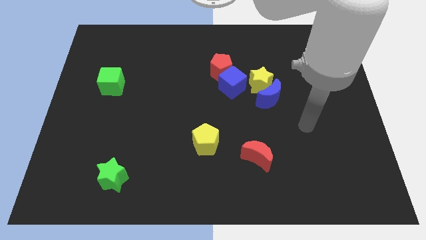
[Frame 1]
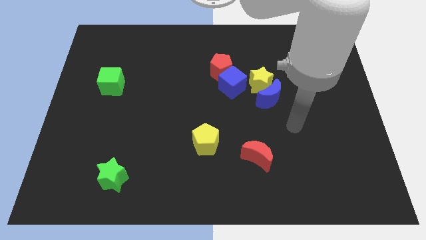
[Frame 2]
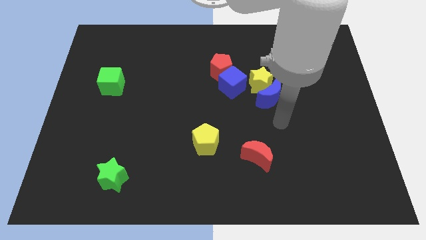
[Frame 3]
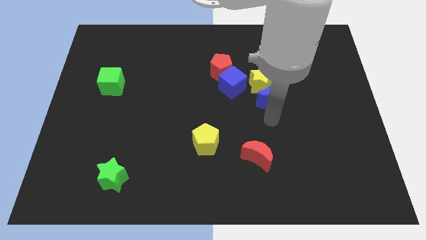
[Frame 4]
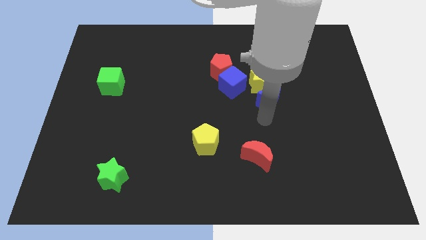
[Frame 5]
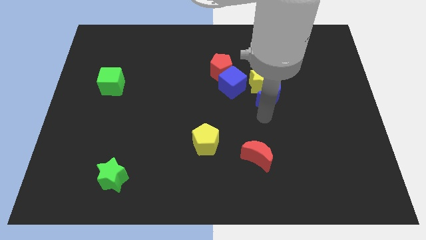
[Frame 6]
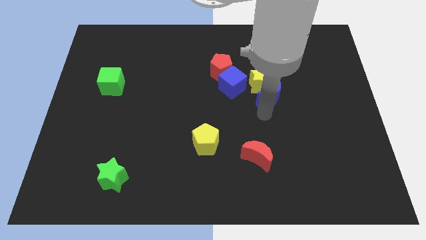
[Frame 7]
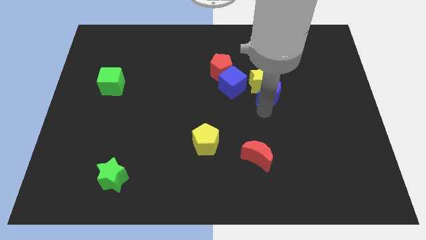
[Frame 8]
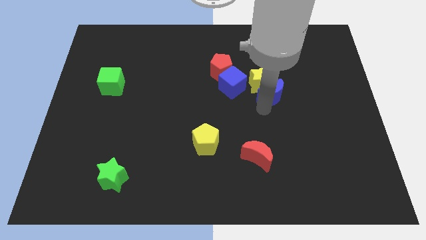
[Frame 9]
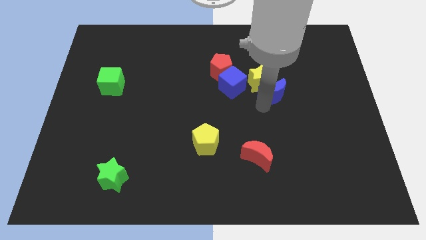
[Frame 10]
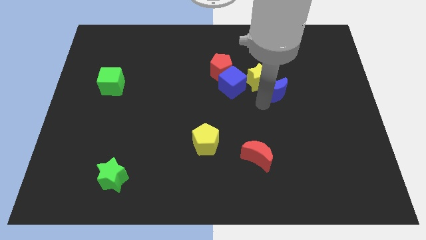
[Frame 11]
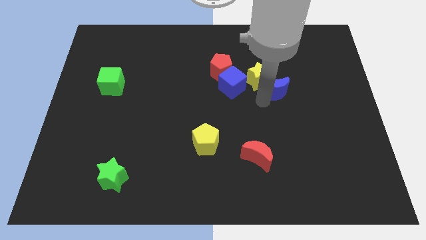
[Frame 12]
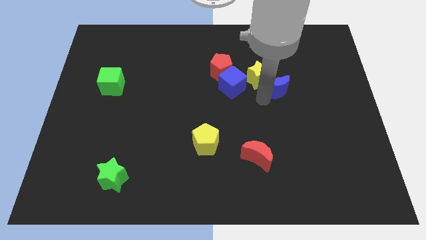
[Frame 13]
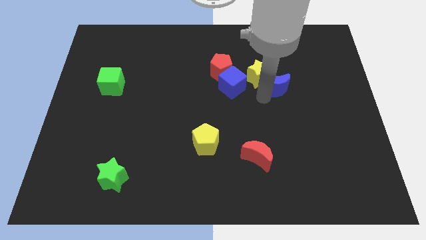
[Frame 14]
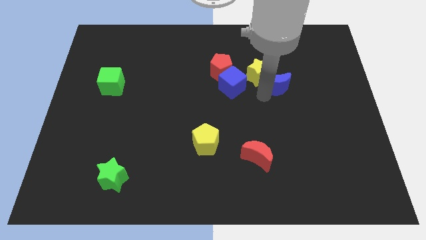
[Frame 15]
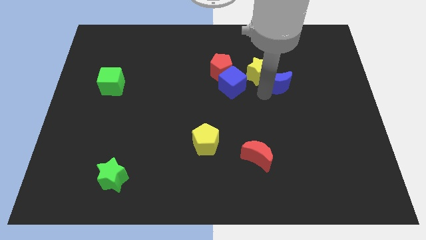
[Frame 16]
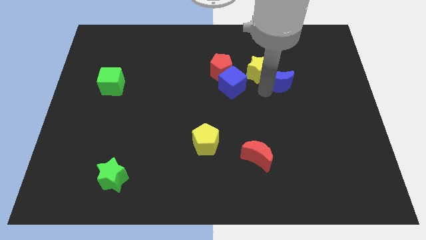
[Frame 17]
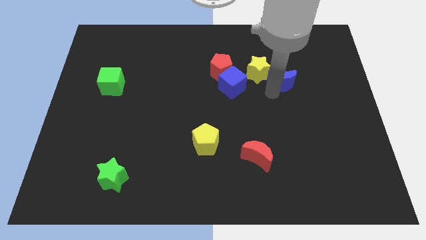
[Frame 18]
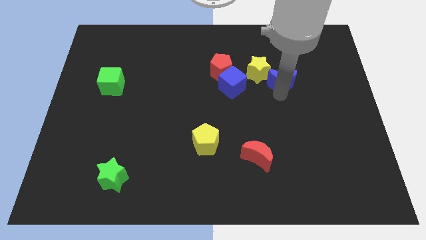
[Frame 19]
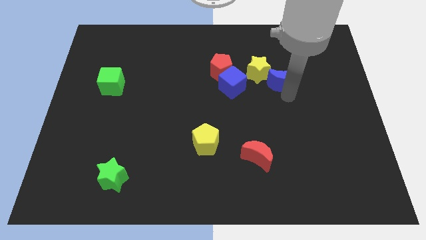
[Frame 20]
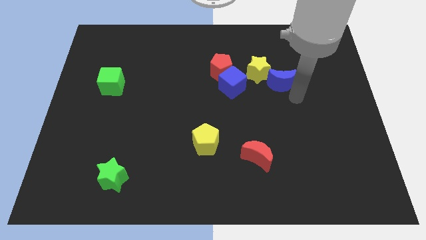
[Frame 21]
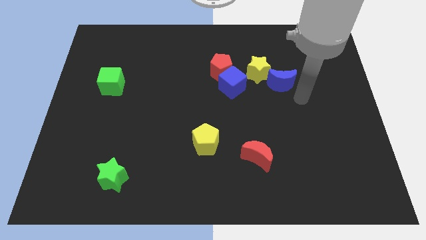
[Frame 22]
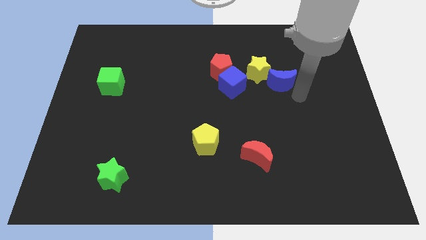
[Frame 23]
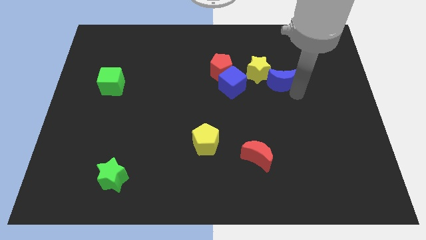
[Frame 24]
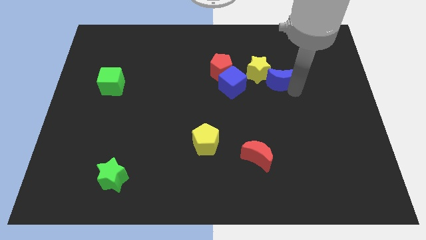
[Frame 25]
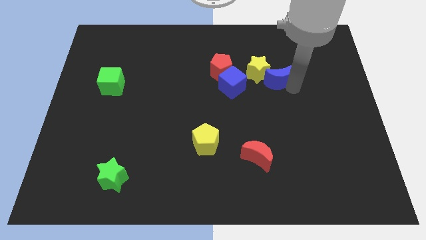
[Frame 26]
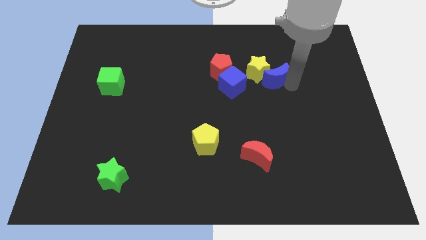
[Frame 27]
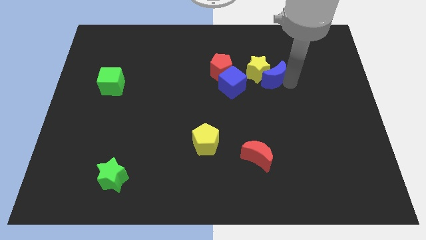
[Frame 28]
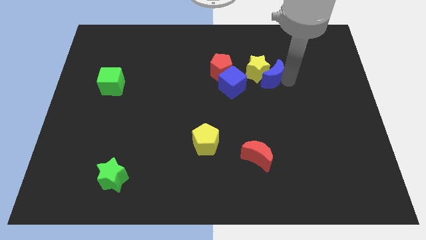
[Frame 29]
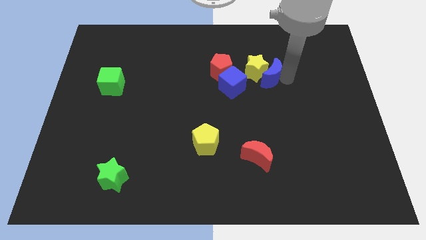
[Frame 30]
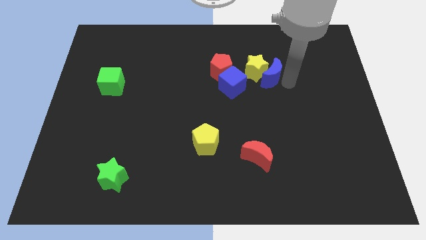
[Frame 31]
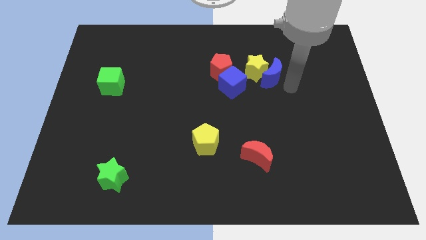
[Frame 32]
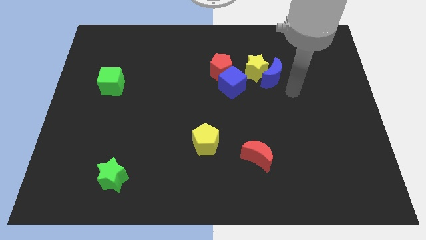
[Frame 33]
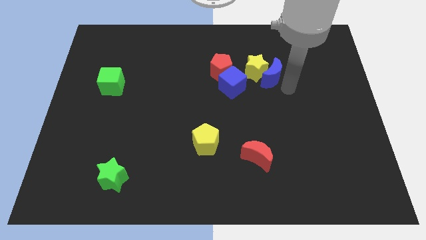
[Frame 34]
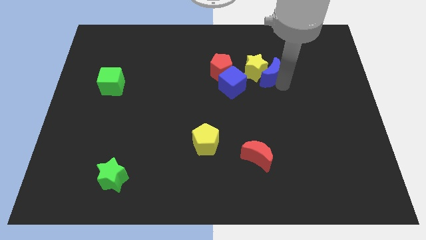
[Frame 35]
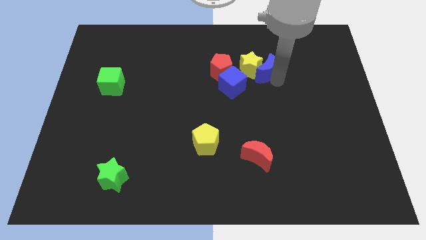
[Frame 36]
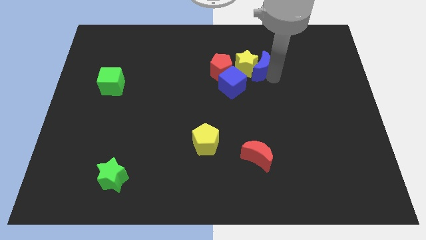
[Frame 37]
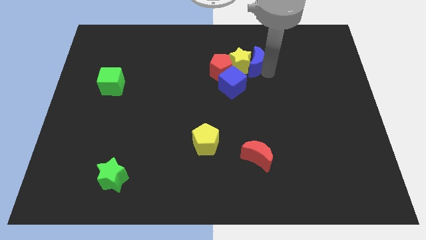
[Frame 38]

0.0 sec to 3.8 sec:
slightly move the blue moon diagonally up and left

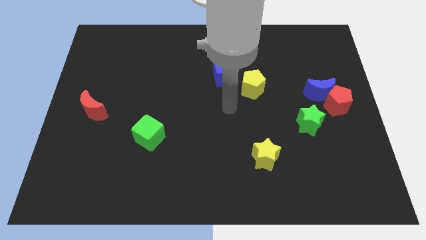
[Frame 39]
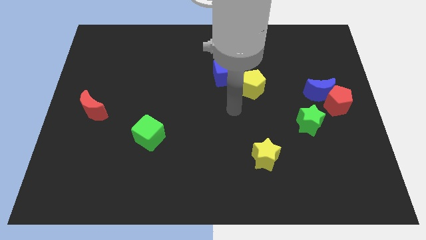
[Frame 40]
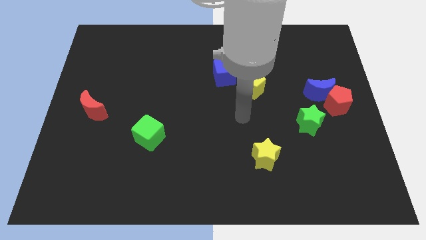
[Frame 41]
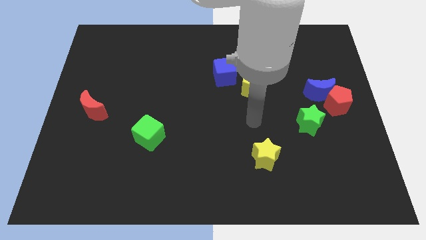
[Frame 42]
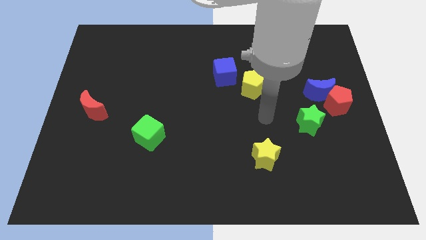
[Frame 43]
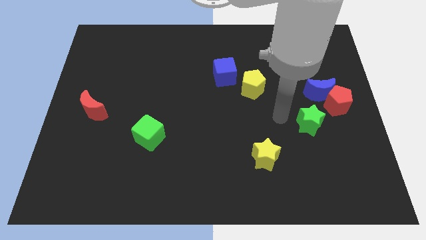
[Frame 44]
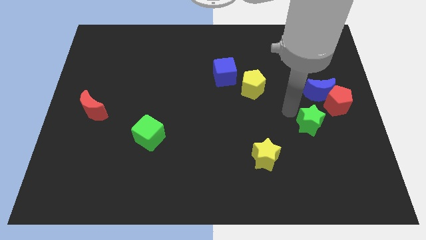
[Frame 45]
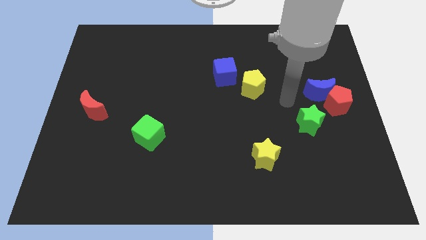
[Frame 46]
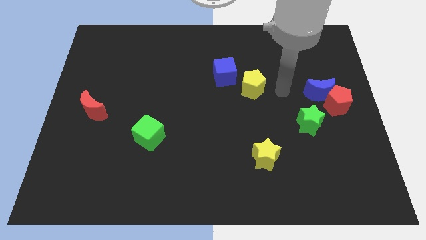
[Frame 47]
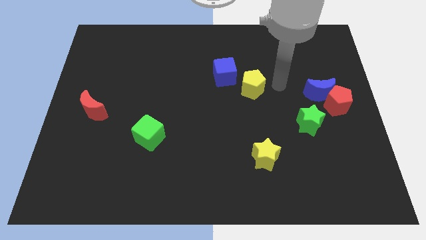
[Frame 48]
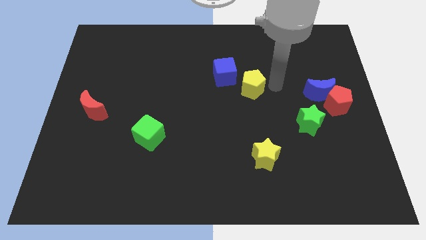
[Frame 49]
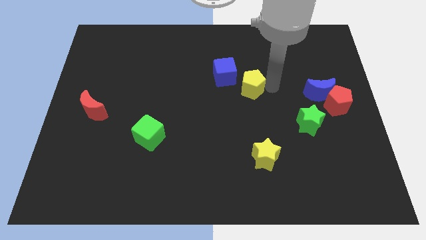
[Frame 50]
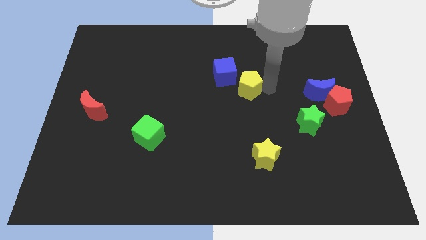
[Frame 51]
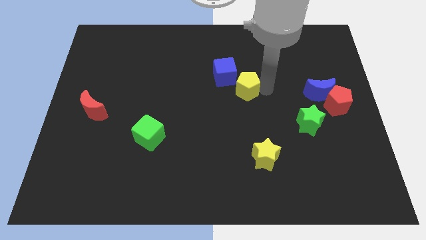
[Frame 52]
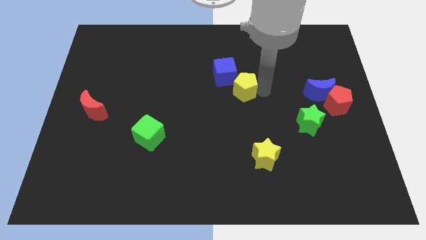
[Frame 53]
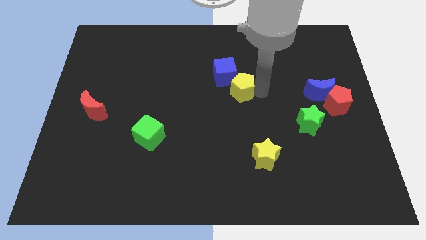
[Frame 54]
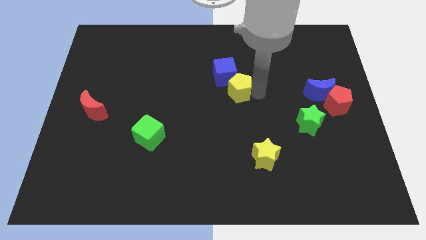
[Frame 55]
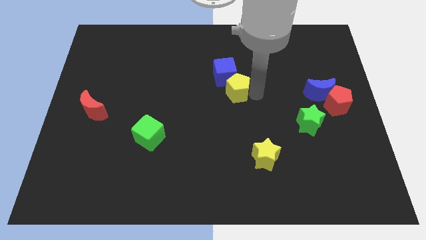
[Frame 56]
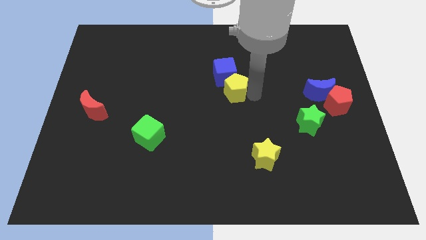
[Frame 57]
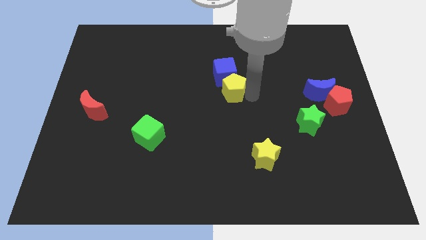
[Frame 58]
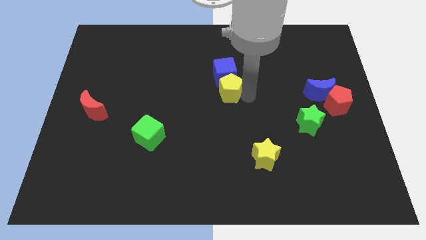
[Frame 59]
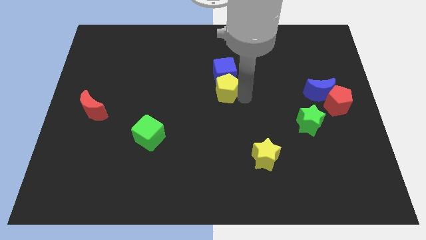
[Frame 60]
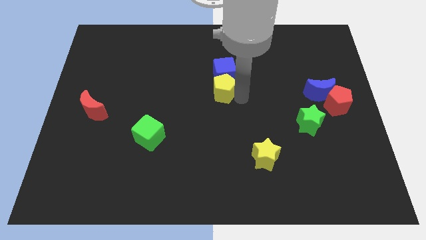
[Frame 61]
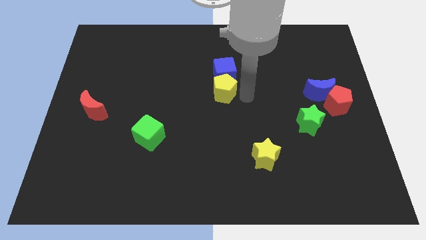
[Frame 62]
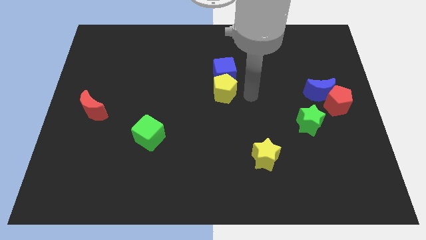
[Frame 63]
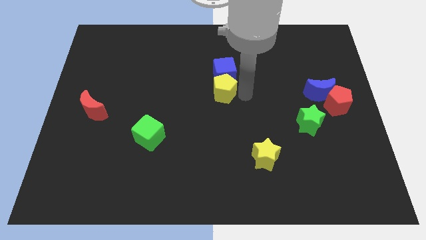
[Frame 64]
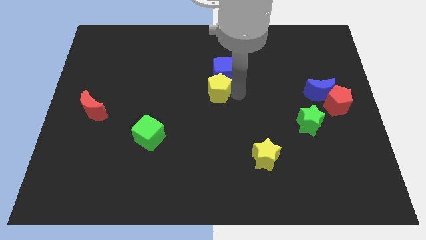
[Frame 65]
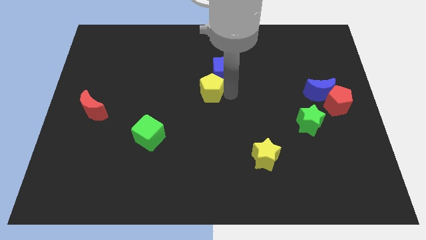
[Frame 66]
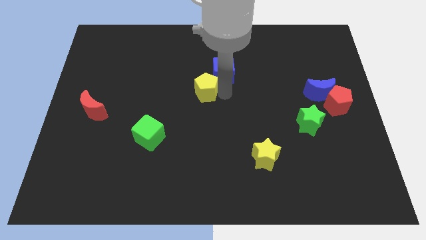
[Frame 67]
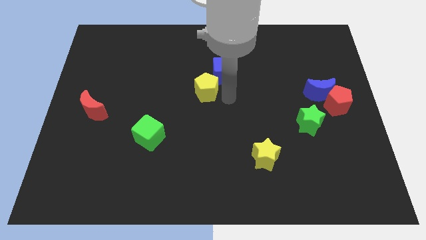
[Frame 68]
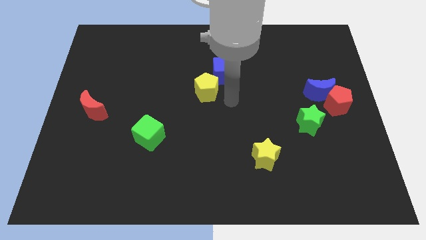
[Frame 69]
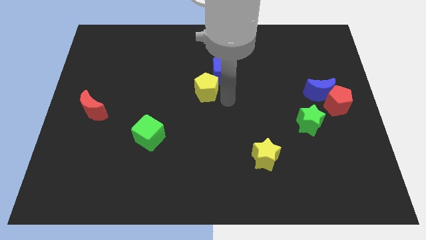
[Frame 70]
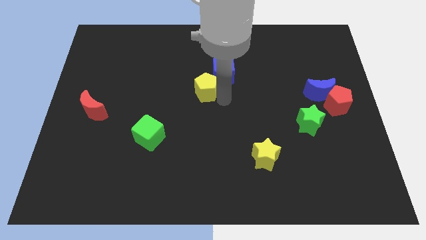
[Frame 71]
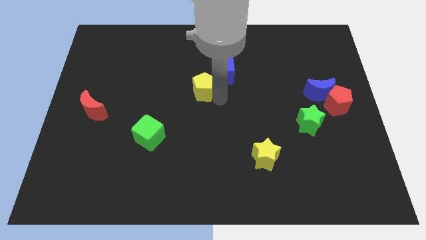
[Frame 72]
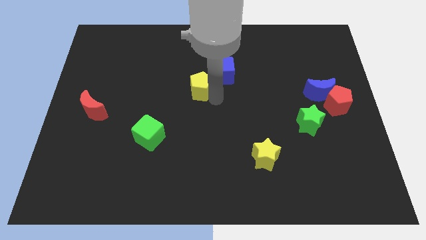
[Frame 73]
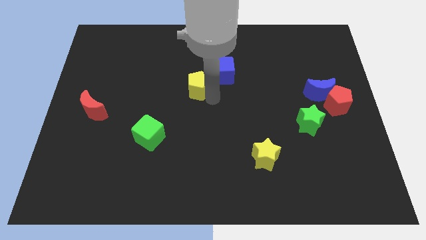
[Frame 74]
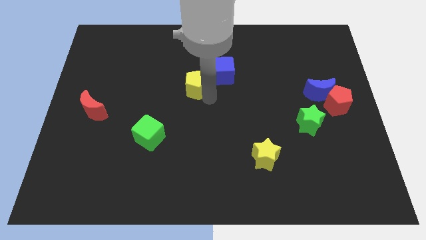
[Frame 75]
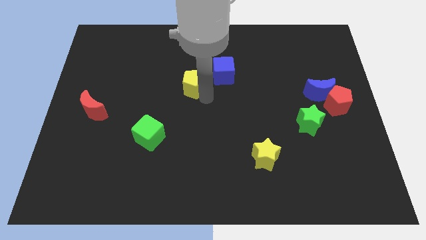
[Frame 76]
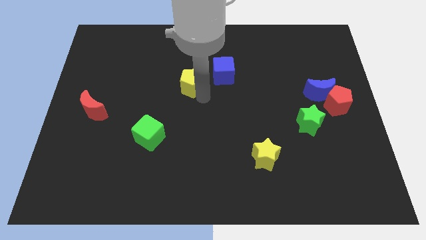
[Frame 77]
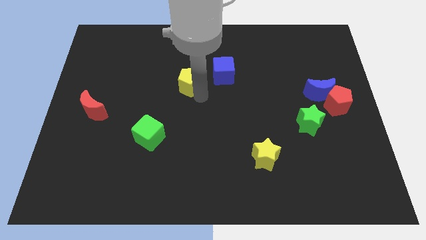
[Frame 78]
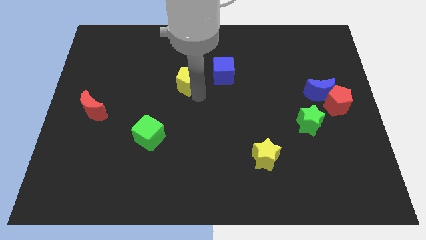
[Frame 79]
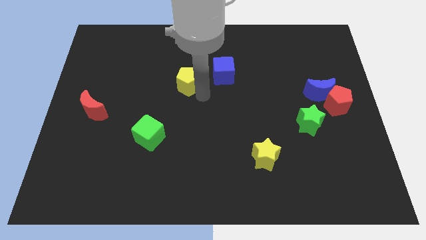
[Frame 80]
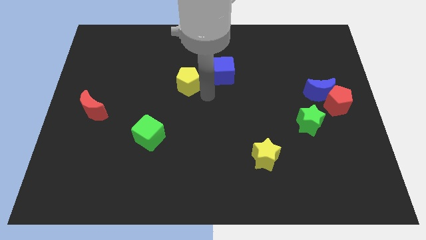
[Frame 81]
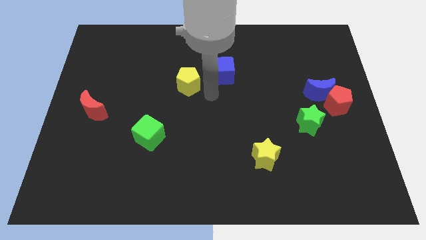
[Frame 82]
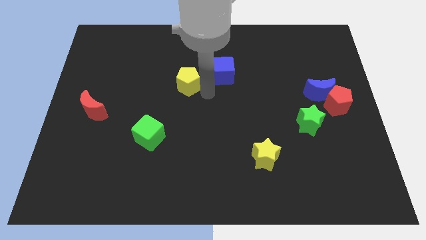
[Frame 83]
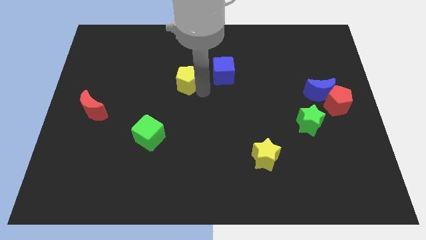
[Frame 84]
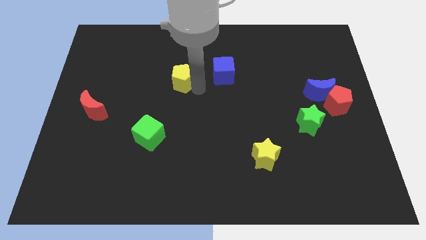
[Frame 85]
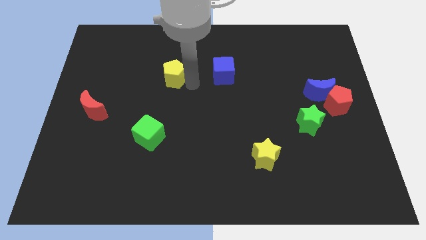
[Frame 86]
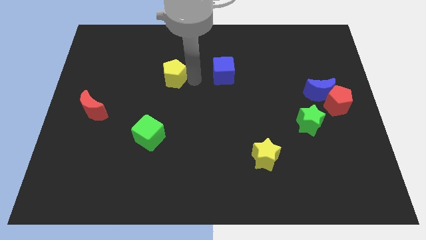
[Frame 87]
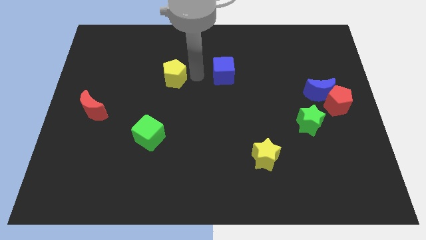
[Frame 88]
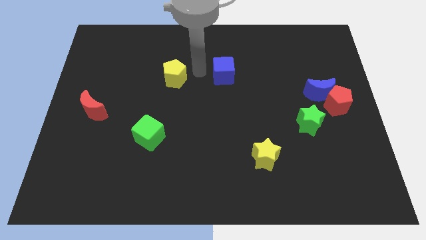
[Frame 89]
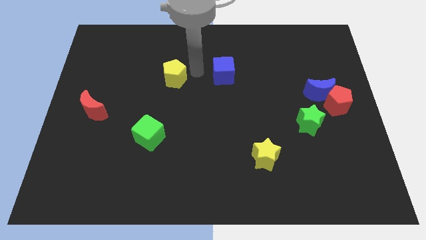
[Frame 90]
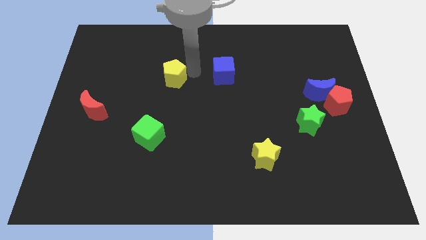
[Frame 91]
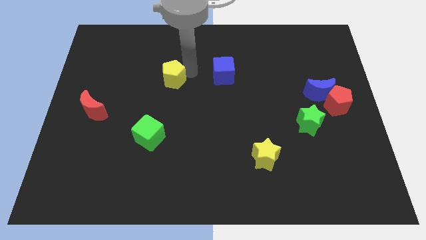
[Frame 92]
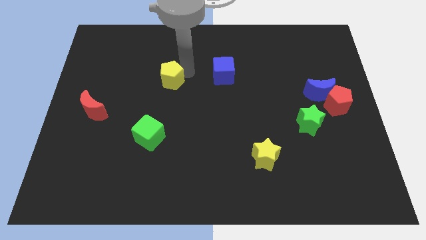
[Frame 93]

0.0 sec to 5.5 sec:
push the yellow pentagon left
